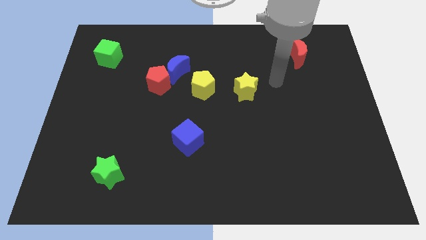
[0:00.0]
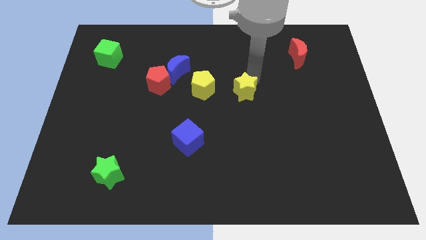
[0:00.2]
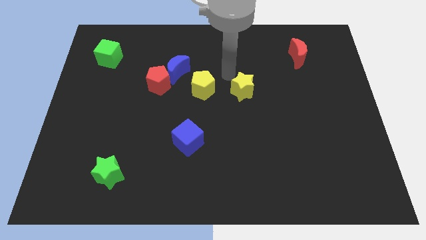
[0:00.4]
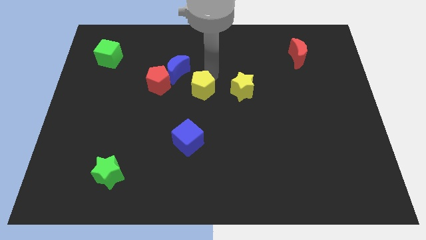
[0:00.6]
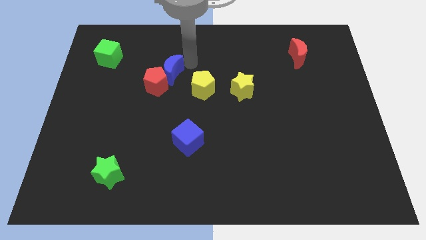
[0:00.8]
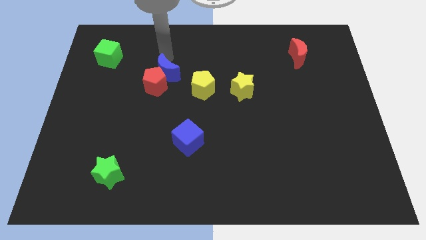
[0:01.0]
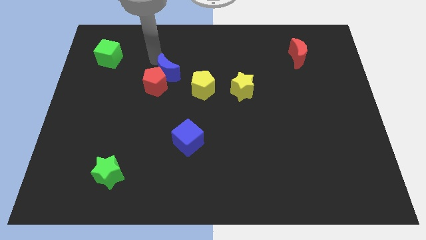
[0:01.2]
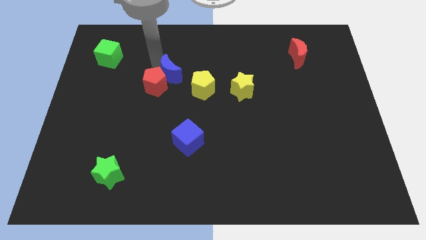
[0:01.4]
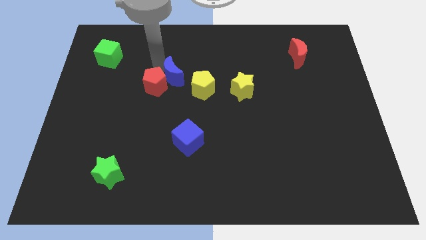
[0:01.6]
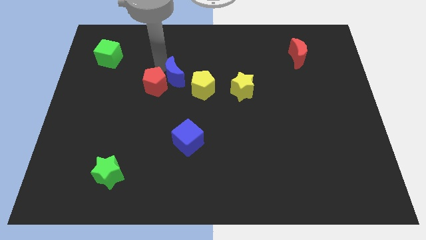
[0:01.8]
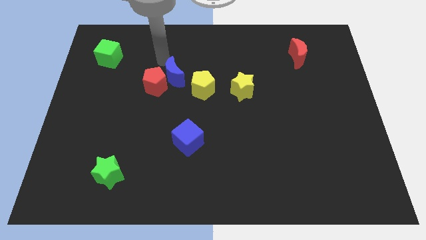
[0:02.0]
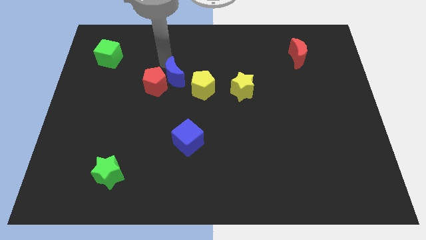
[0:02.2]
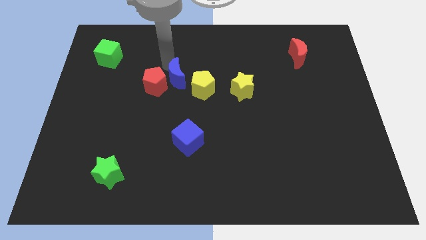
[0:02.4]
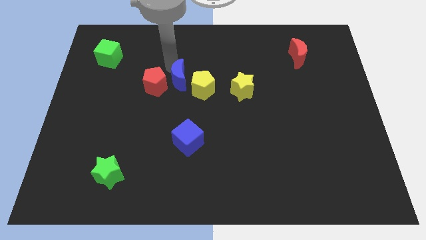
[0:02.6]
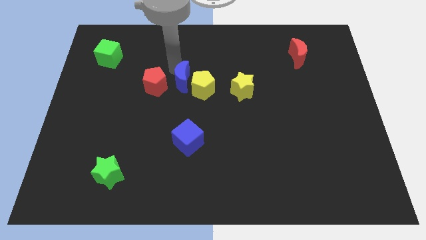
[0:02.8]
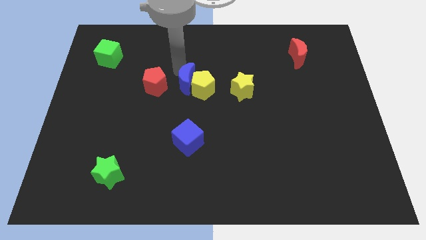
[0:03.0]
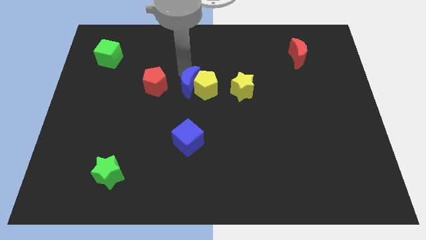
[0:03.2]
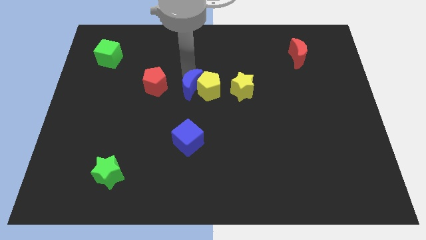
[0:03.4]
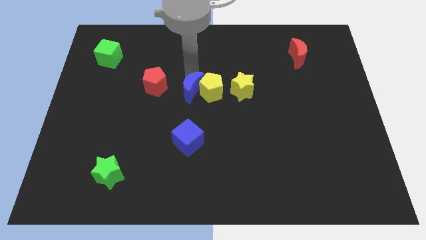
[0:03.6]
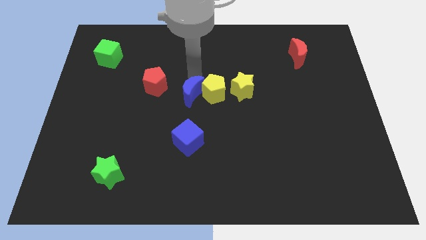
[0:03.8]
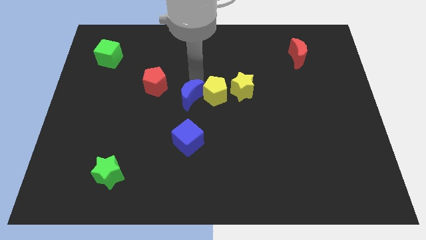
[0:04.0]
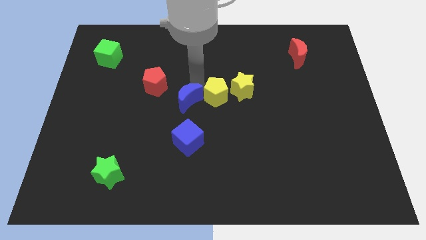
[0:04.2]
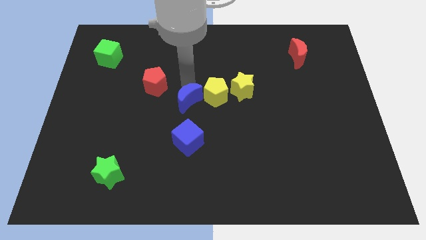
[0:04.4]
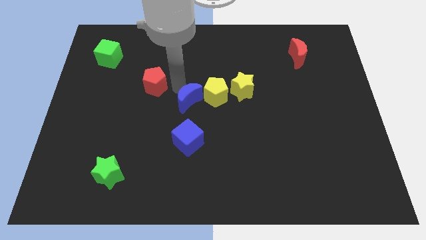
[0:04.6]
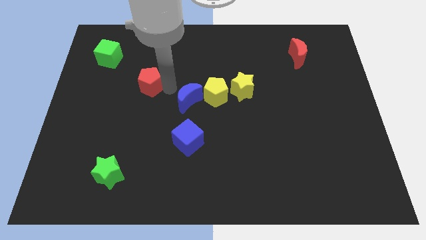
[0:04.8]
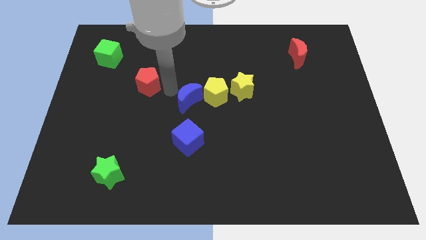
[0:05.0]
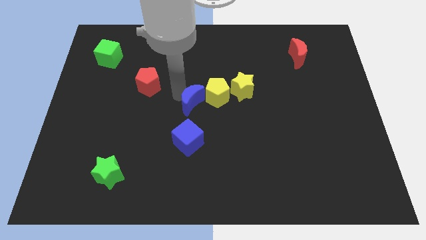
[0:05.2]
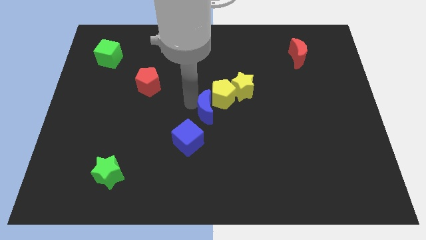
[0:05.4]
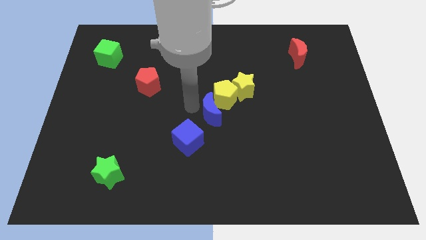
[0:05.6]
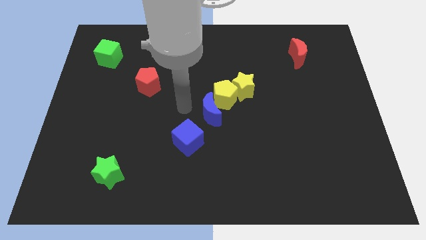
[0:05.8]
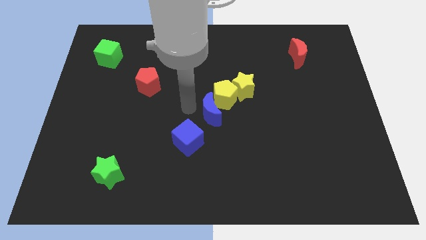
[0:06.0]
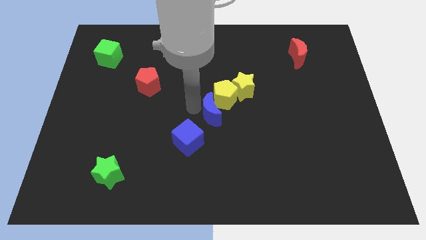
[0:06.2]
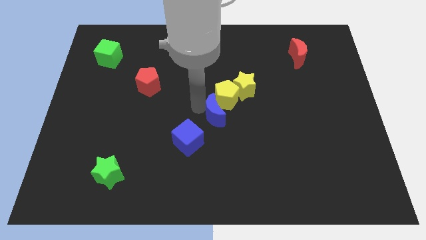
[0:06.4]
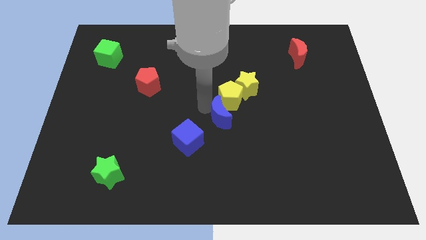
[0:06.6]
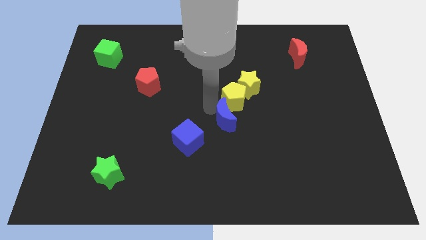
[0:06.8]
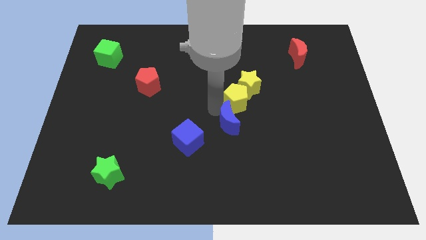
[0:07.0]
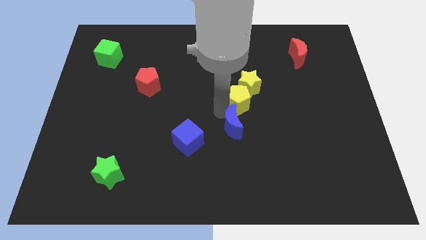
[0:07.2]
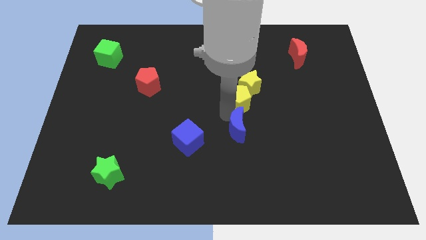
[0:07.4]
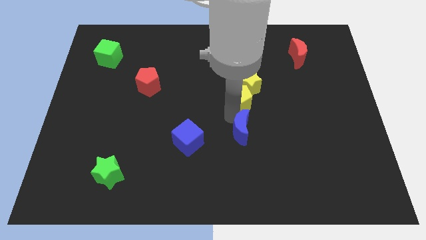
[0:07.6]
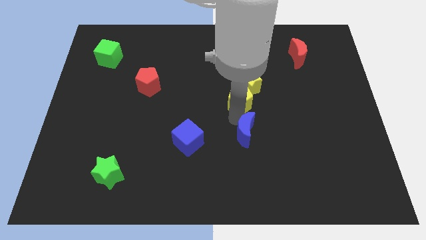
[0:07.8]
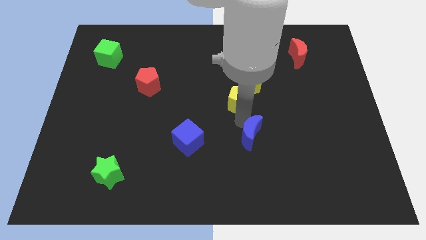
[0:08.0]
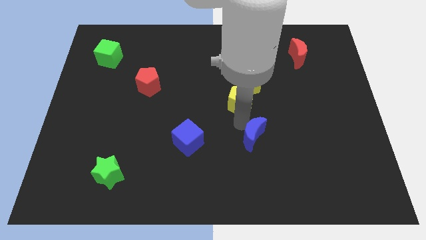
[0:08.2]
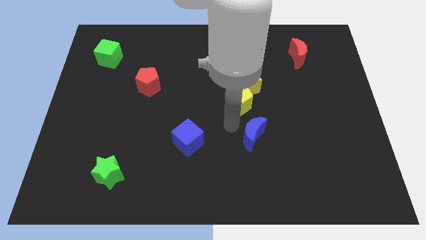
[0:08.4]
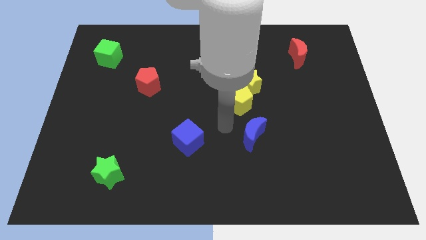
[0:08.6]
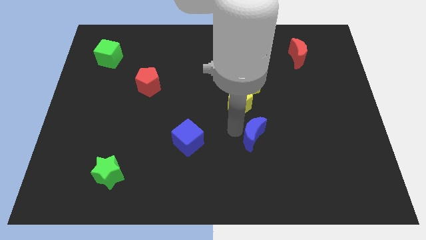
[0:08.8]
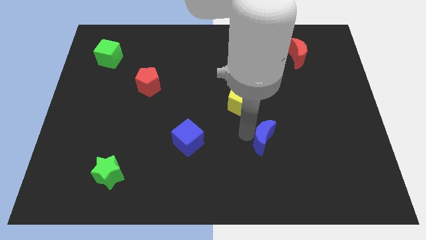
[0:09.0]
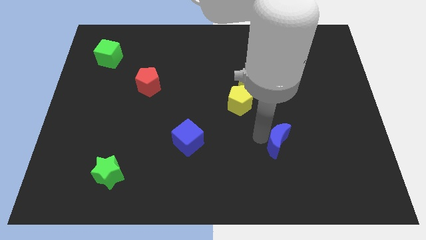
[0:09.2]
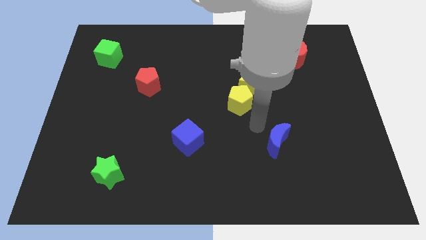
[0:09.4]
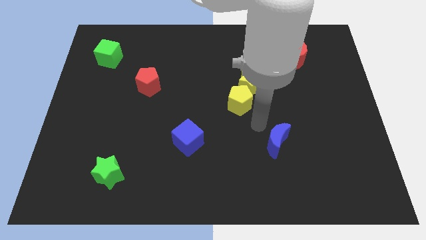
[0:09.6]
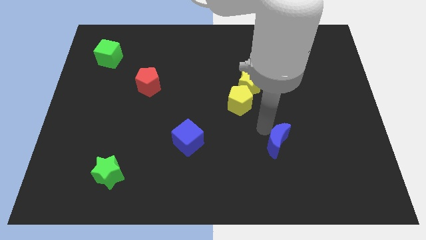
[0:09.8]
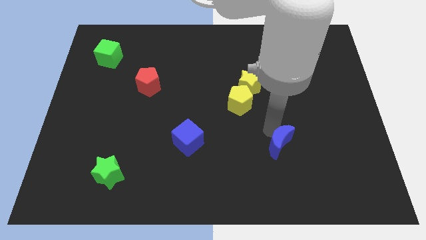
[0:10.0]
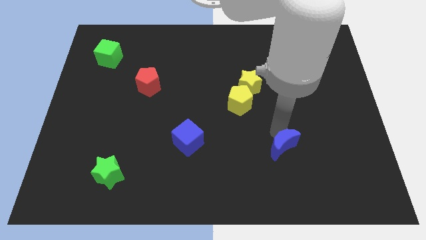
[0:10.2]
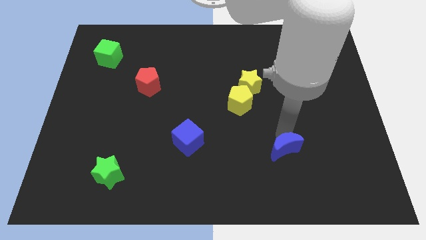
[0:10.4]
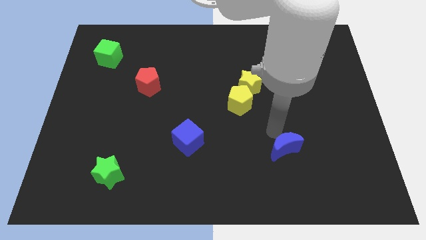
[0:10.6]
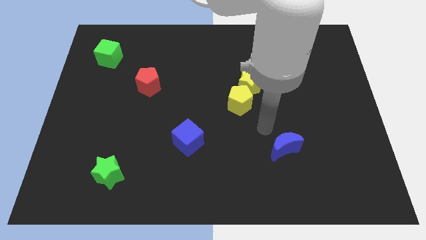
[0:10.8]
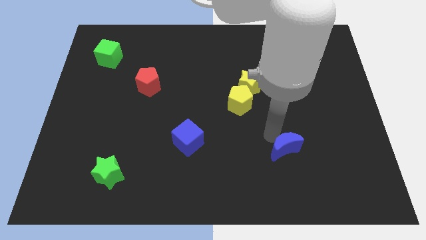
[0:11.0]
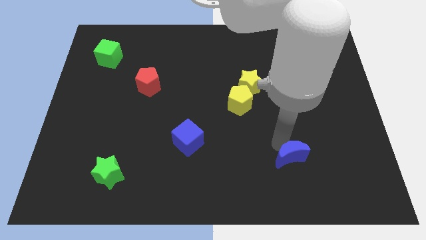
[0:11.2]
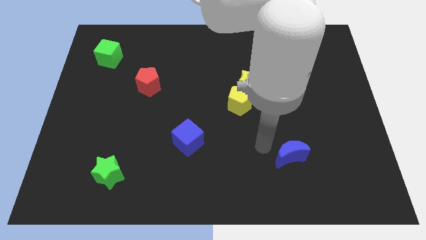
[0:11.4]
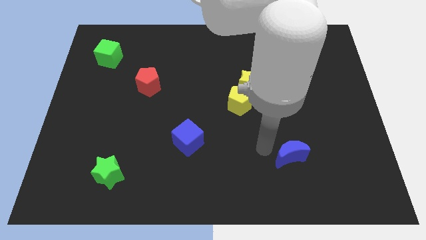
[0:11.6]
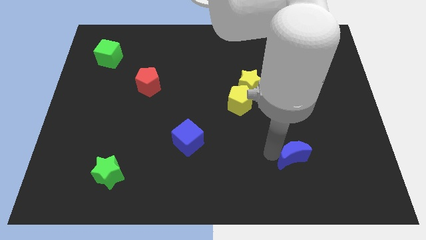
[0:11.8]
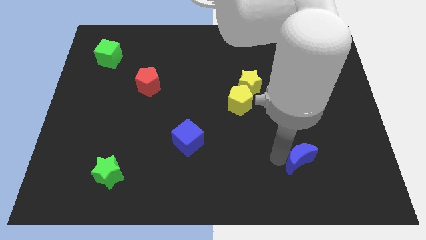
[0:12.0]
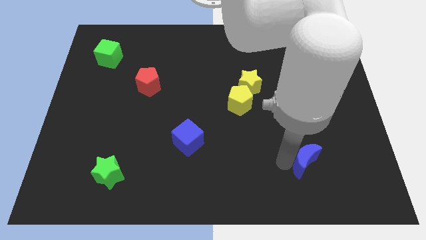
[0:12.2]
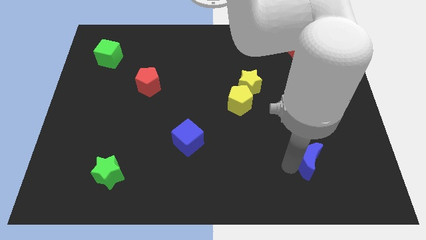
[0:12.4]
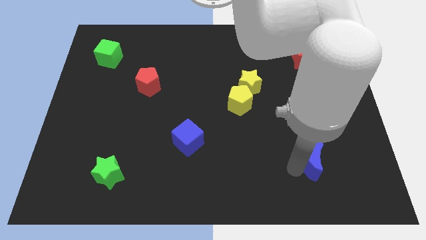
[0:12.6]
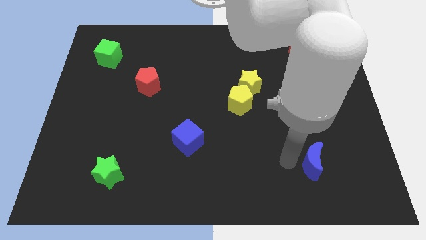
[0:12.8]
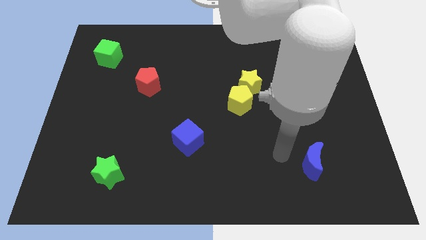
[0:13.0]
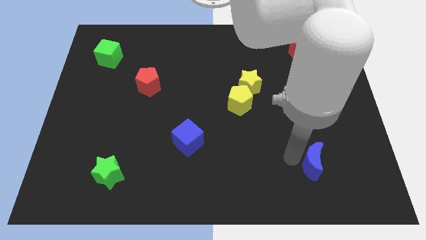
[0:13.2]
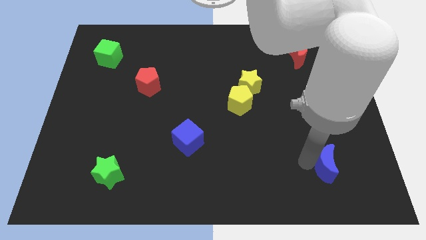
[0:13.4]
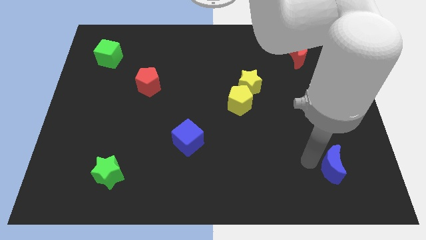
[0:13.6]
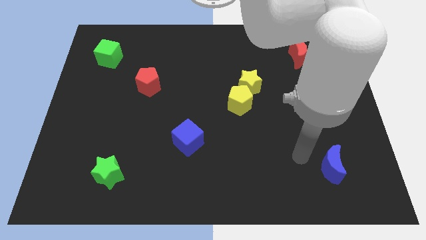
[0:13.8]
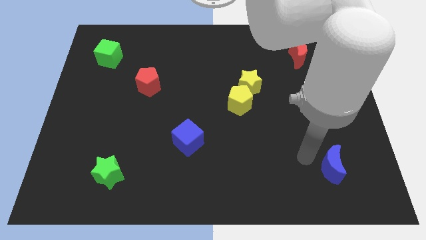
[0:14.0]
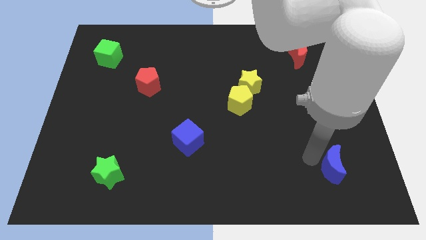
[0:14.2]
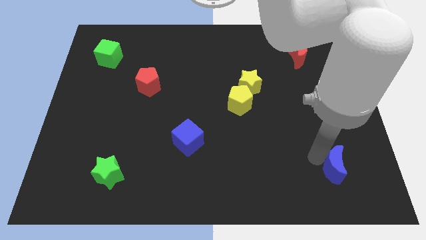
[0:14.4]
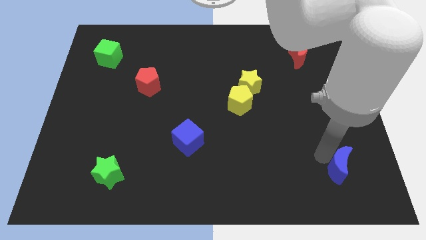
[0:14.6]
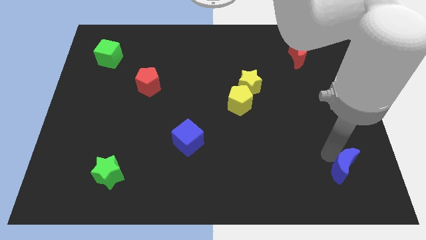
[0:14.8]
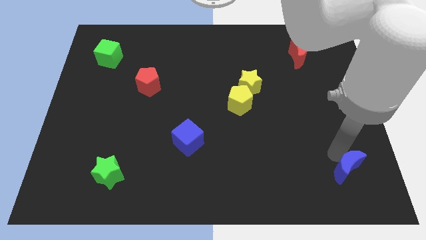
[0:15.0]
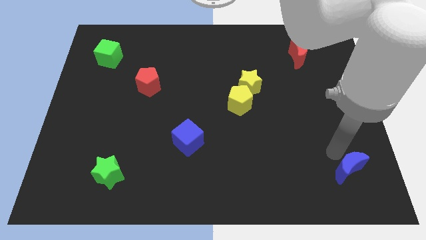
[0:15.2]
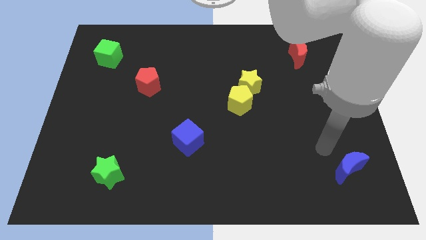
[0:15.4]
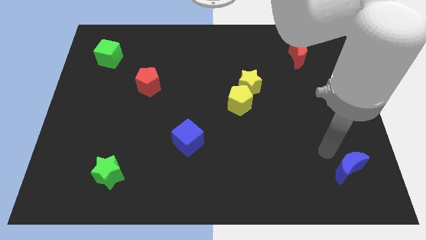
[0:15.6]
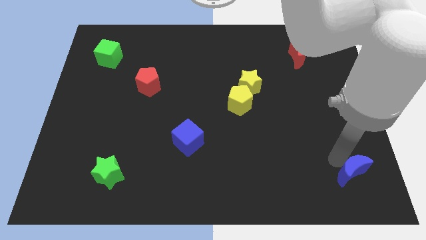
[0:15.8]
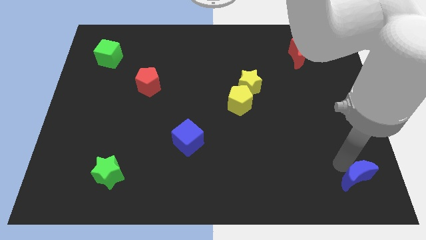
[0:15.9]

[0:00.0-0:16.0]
push the blue moon to the lower right corner
